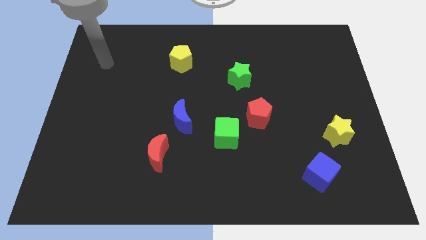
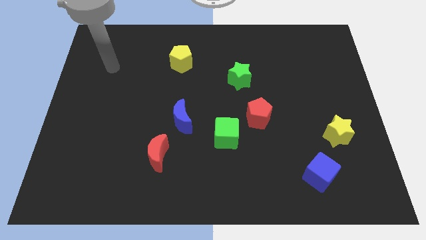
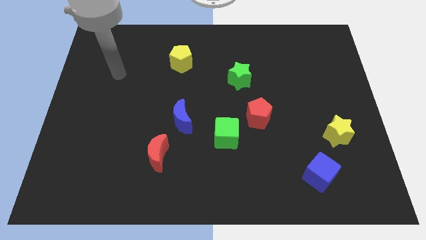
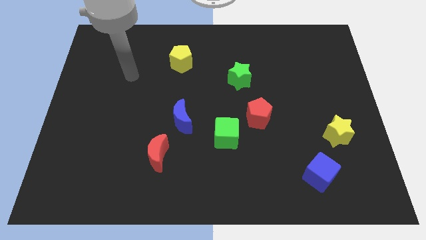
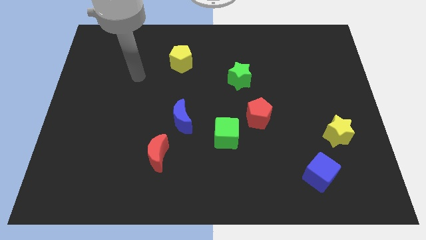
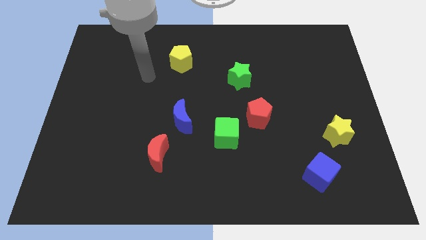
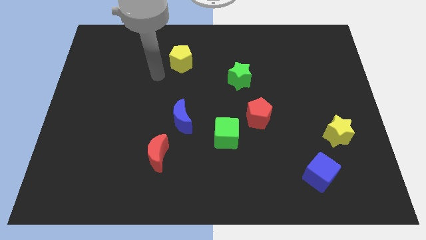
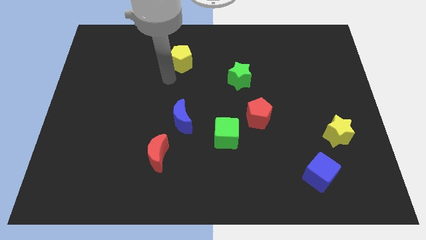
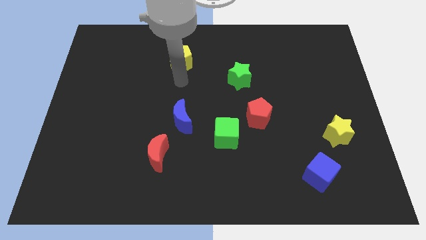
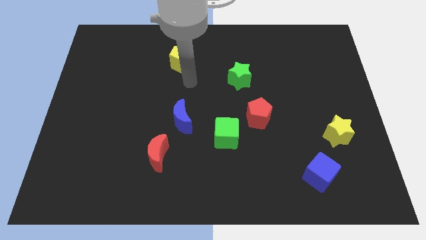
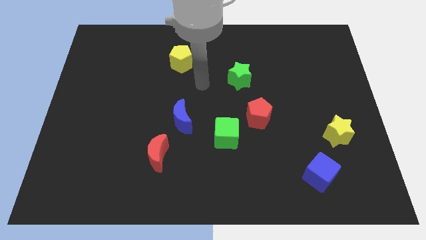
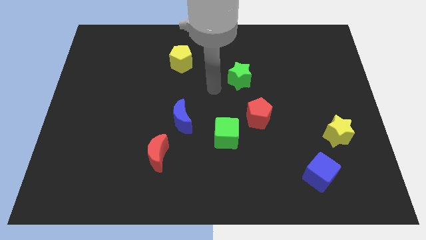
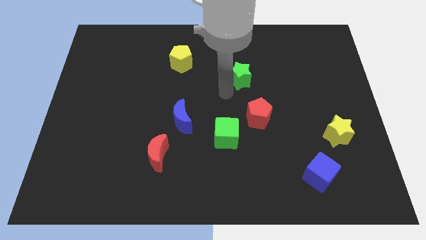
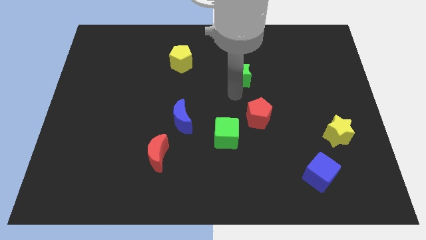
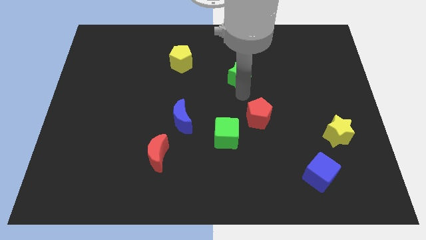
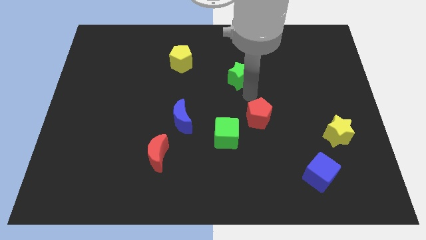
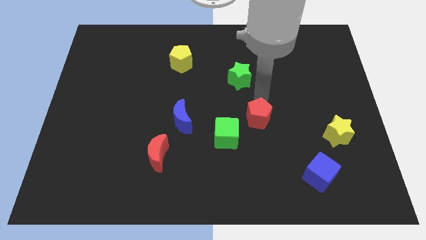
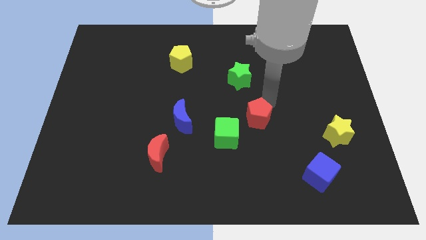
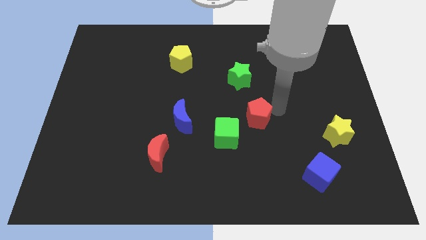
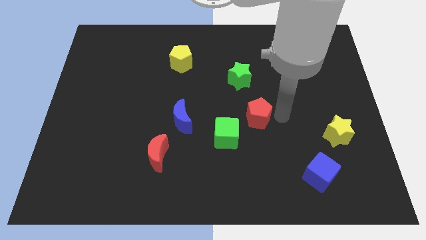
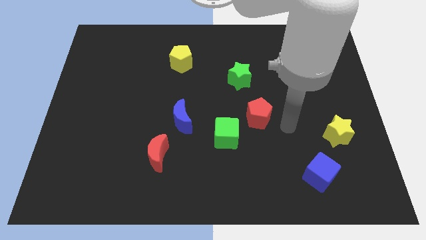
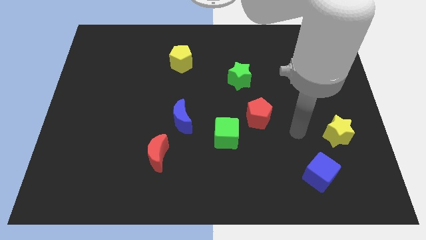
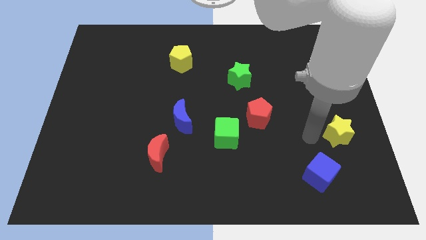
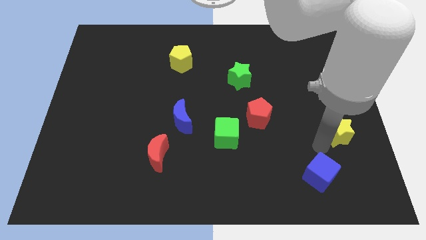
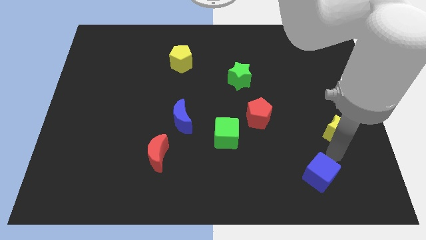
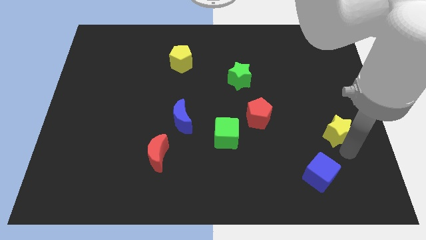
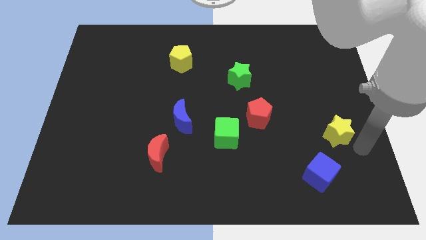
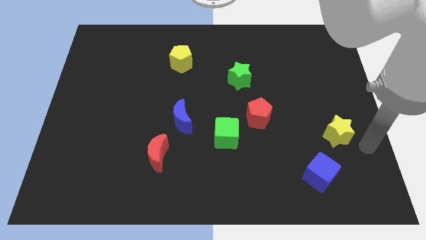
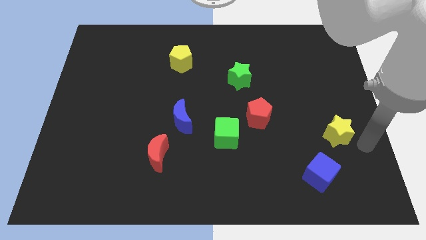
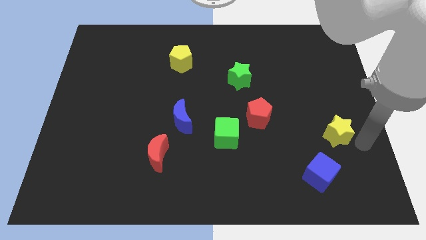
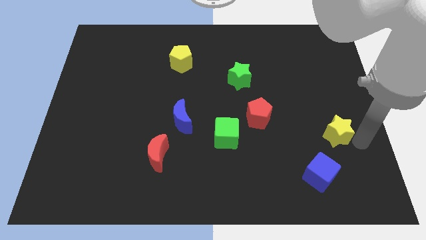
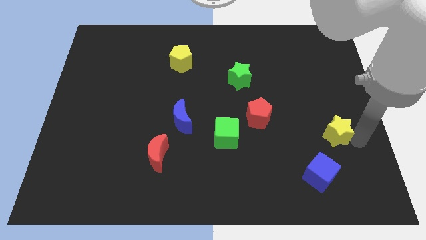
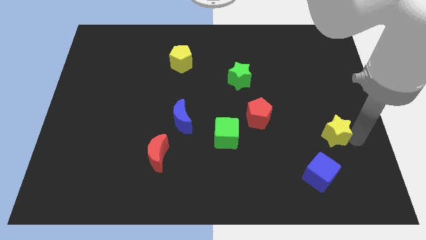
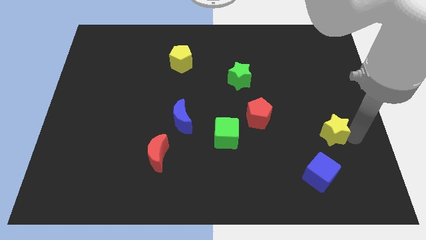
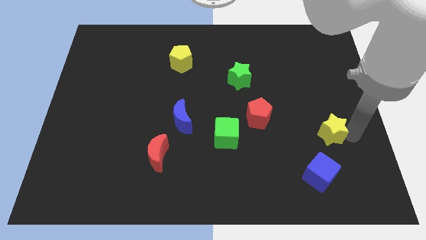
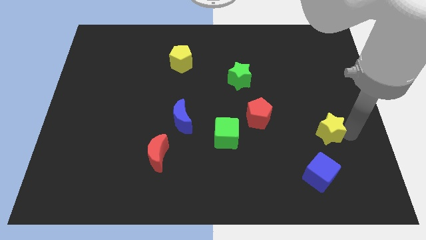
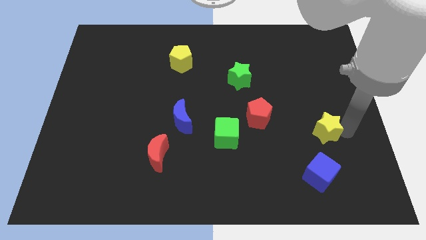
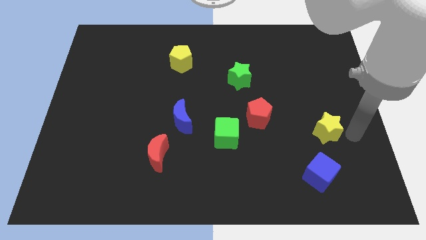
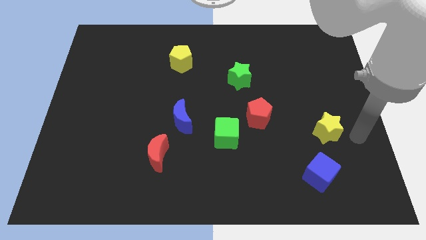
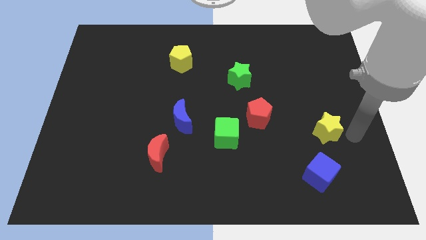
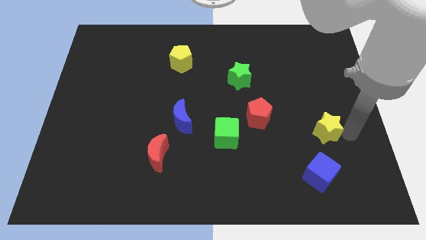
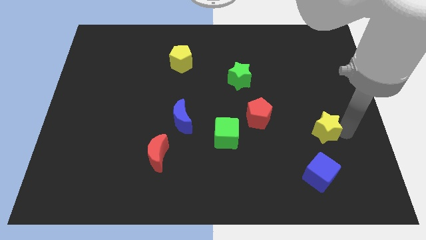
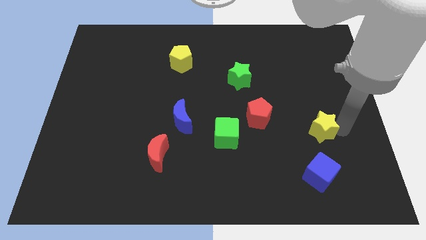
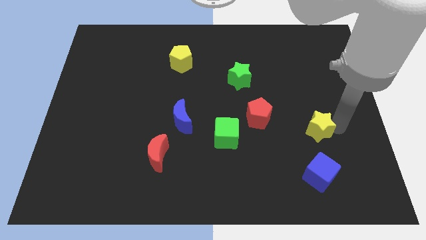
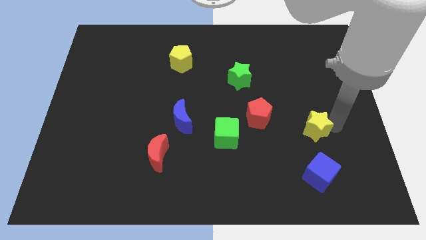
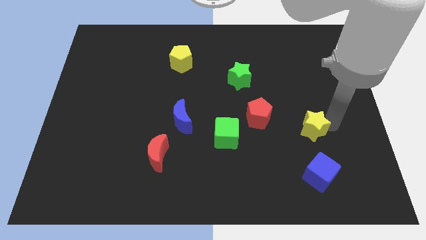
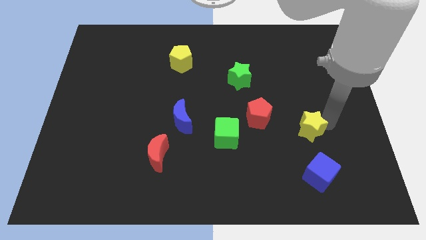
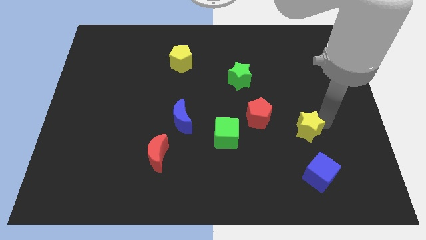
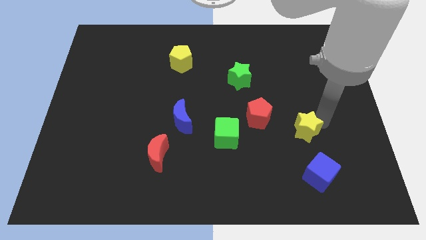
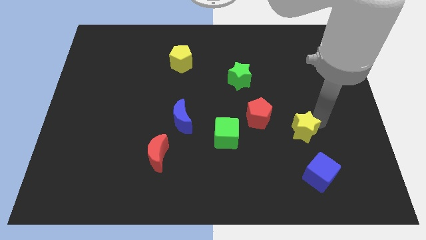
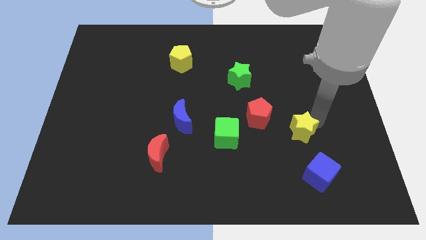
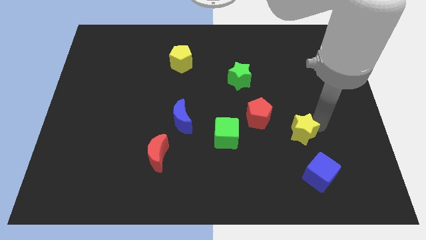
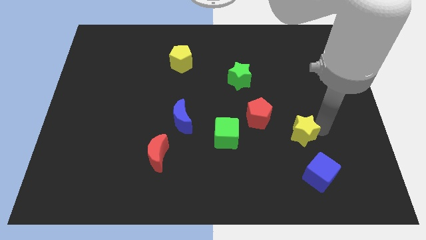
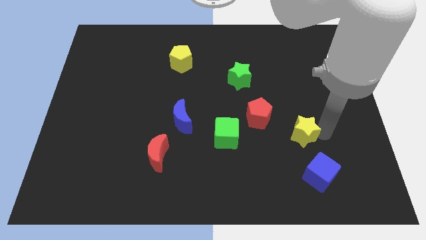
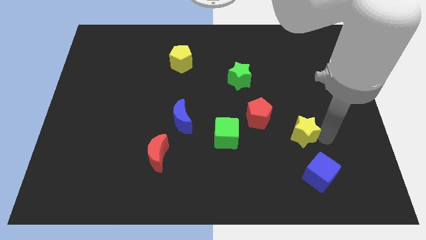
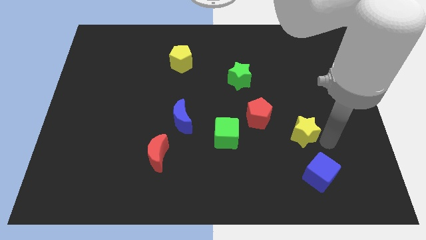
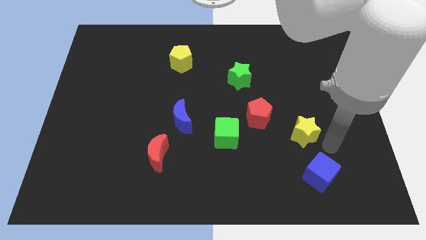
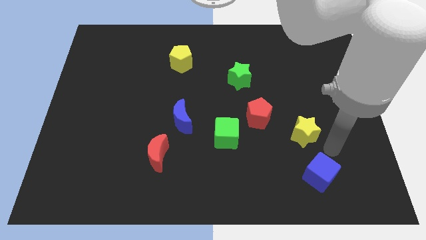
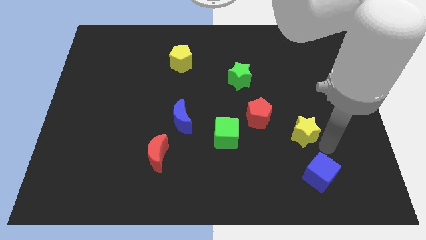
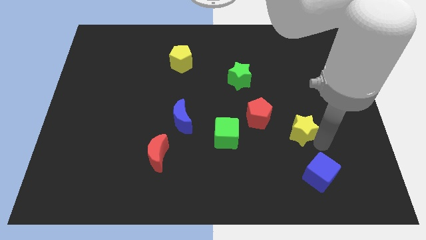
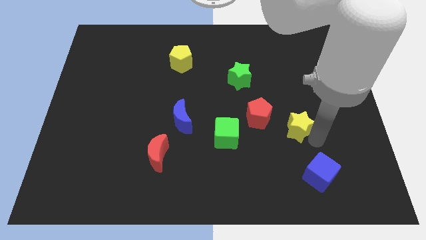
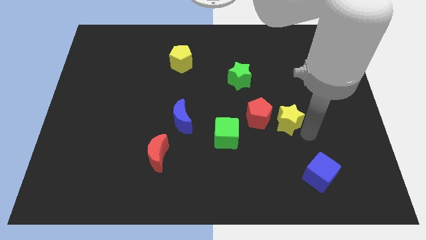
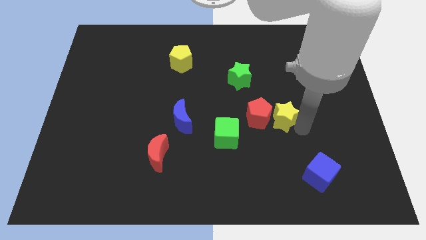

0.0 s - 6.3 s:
slide the yellow star to the red pentagon

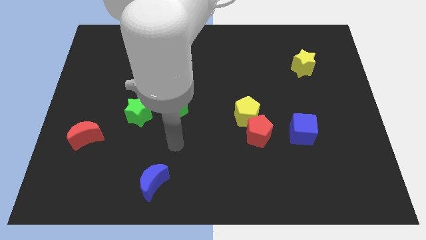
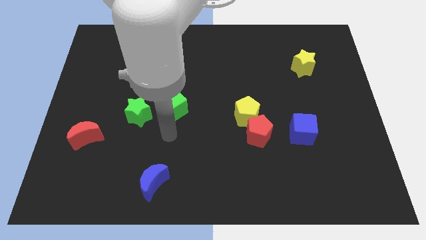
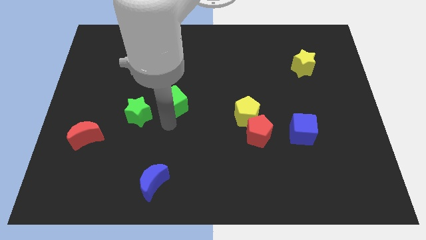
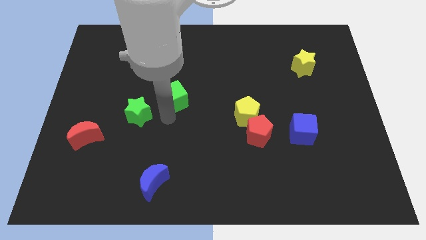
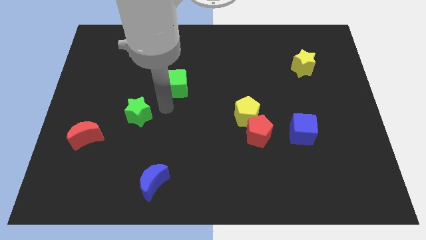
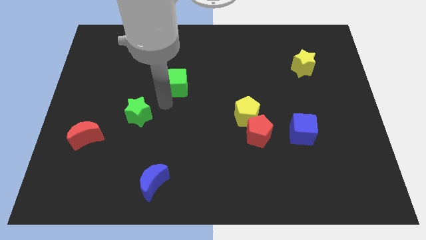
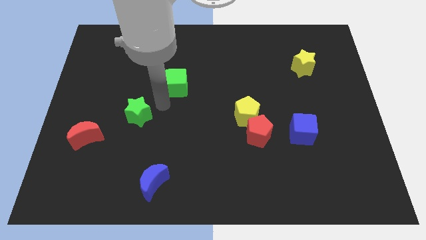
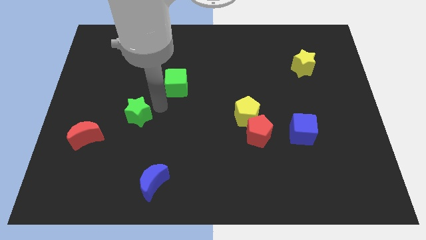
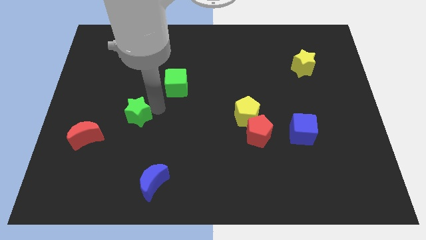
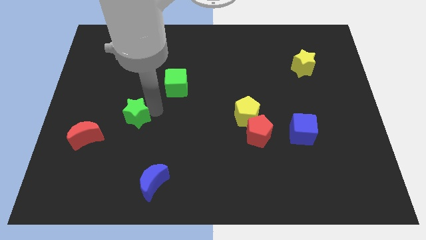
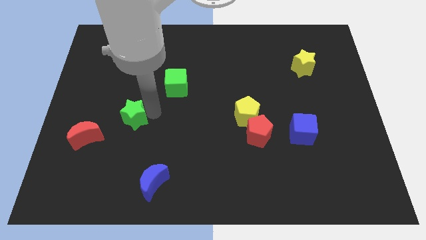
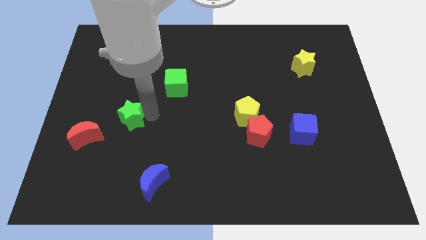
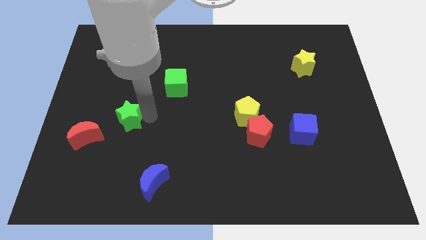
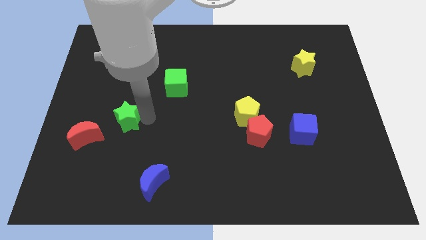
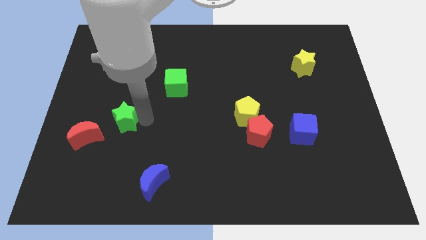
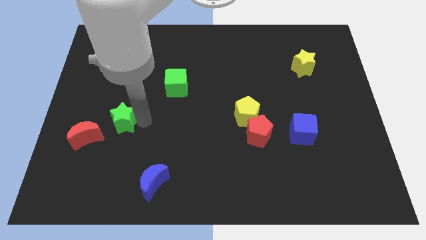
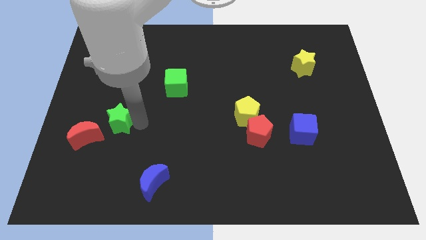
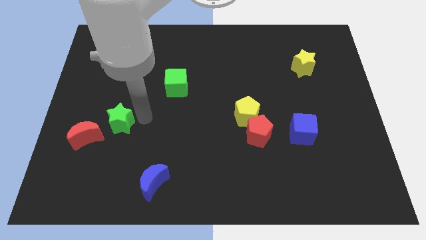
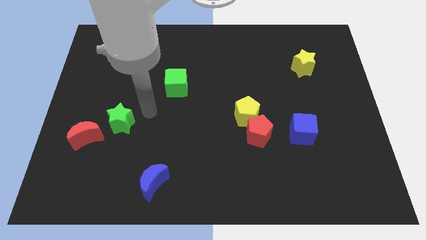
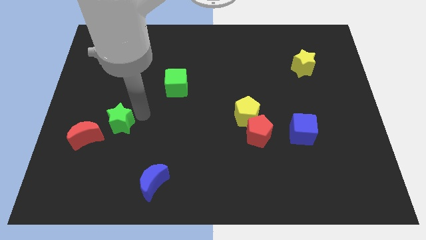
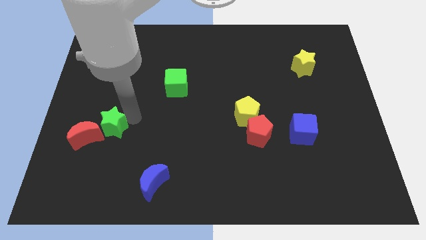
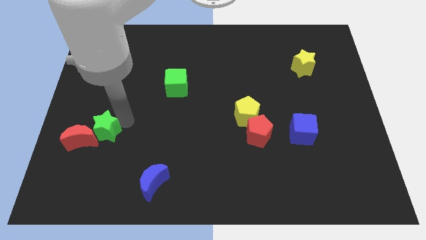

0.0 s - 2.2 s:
put the green star next to the red moon
